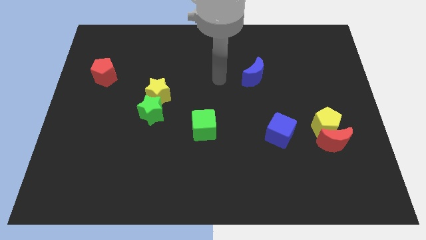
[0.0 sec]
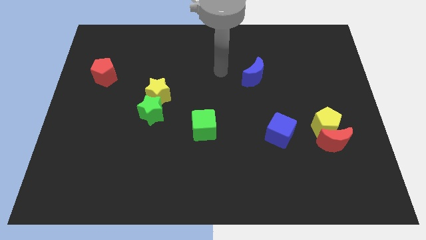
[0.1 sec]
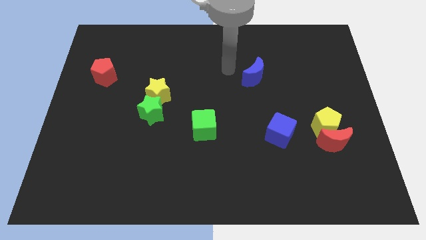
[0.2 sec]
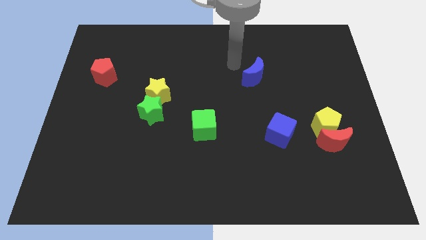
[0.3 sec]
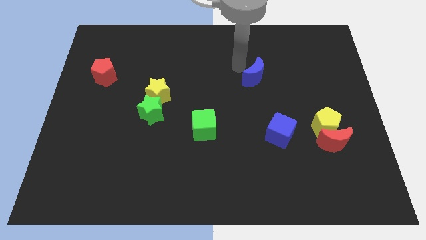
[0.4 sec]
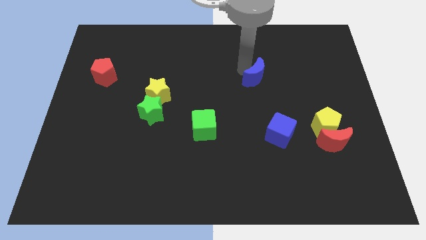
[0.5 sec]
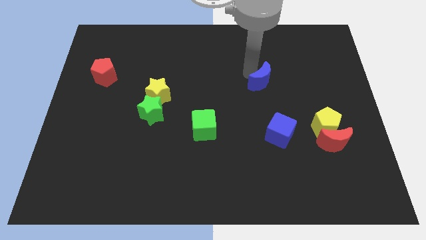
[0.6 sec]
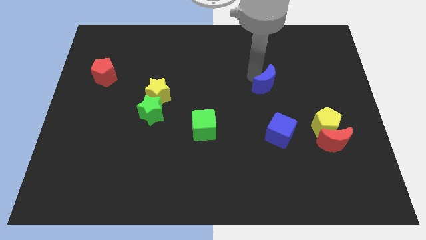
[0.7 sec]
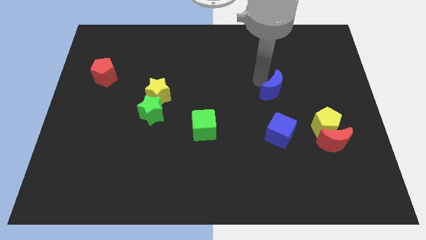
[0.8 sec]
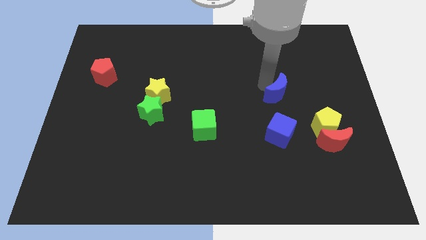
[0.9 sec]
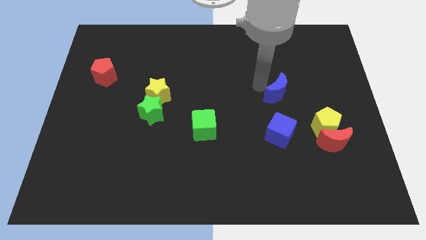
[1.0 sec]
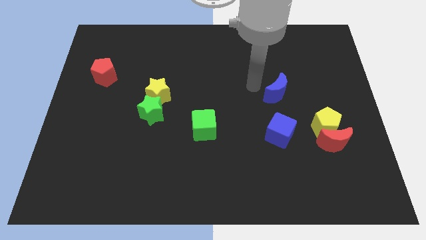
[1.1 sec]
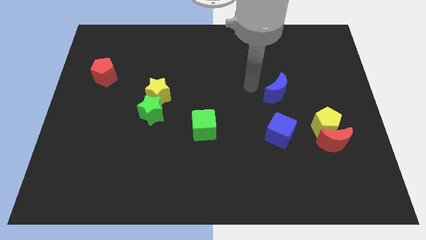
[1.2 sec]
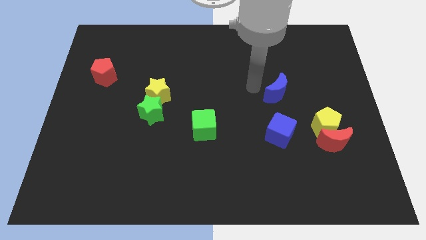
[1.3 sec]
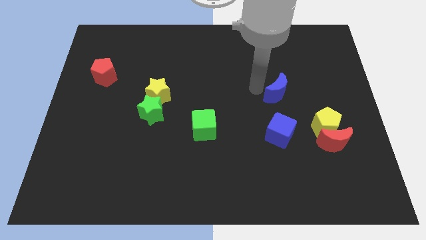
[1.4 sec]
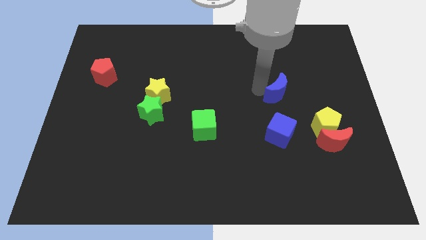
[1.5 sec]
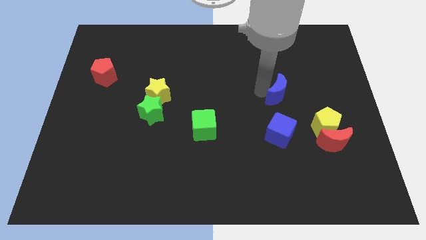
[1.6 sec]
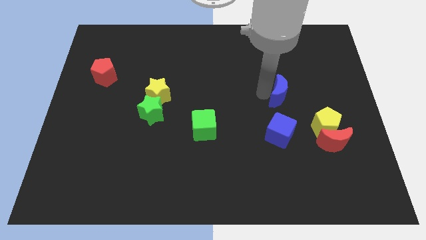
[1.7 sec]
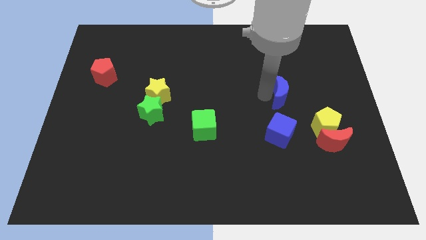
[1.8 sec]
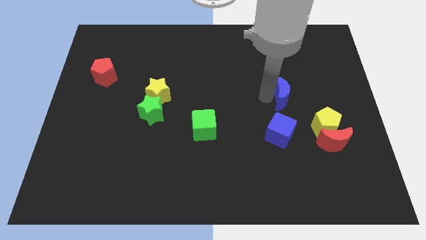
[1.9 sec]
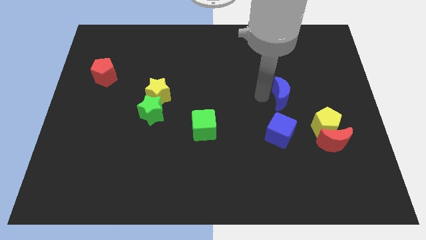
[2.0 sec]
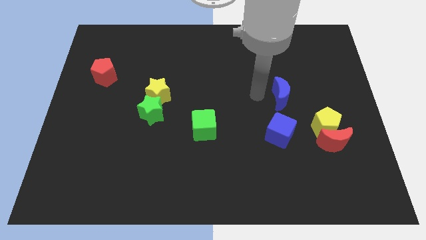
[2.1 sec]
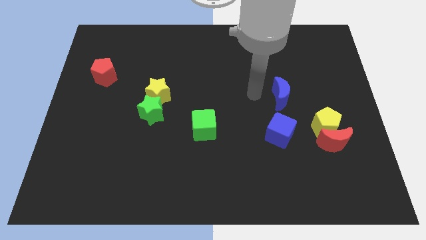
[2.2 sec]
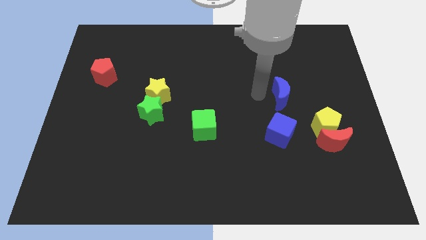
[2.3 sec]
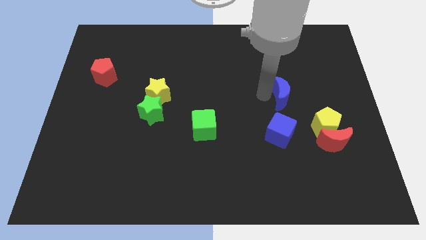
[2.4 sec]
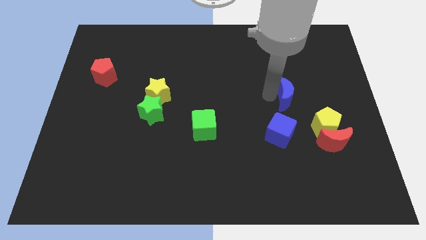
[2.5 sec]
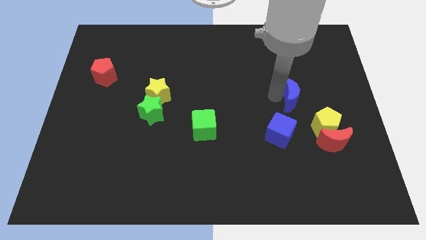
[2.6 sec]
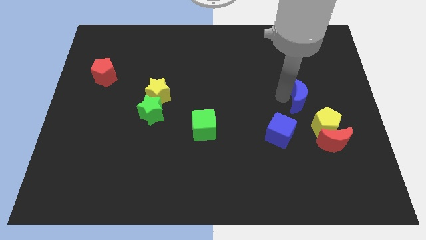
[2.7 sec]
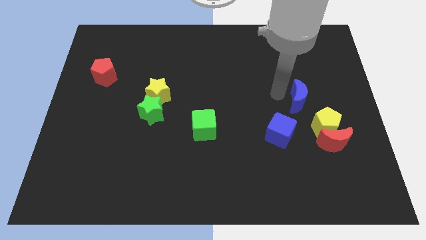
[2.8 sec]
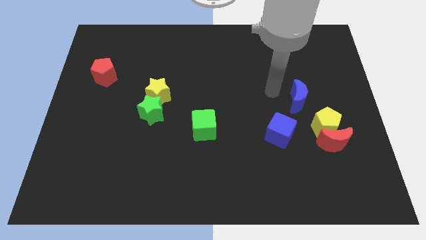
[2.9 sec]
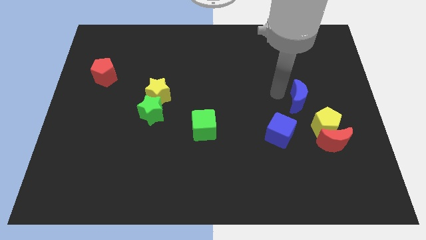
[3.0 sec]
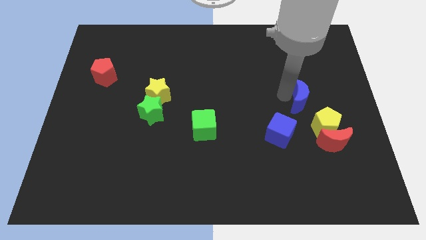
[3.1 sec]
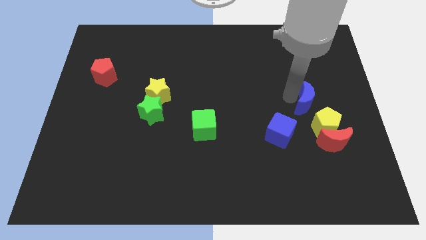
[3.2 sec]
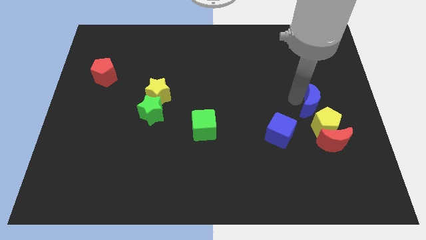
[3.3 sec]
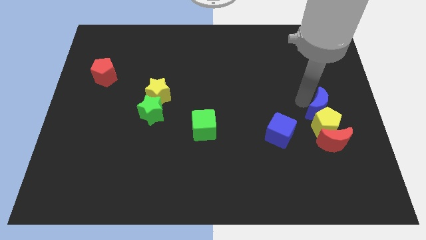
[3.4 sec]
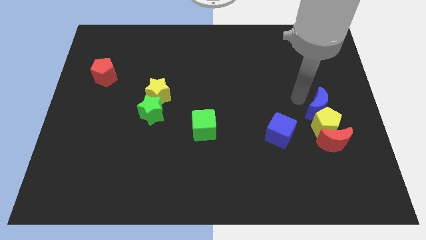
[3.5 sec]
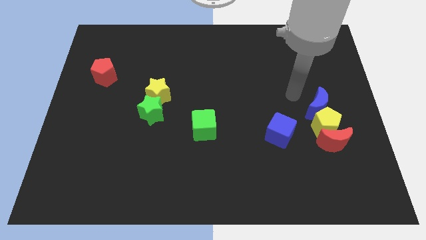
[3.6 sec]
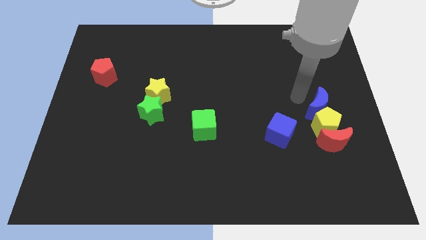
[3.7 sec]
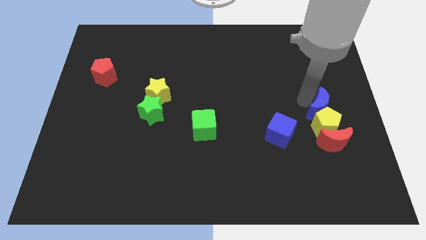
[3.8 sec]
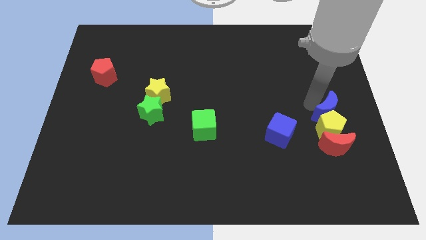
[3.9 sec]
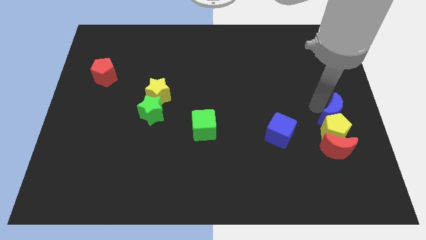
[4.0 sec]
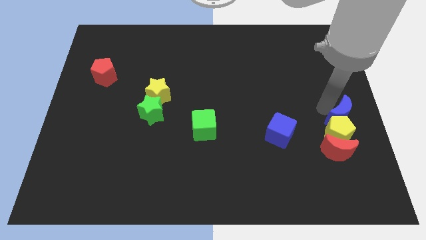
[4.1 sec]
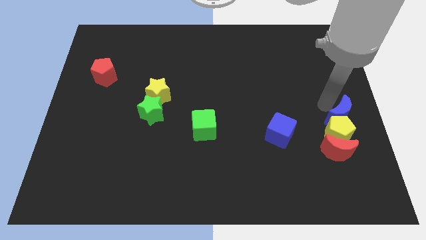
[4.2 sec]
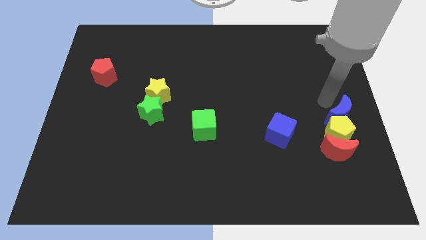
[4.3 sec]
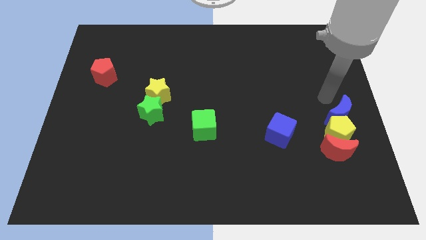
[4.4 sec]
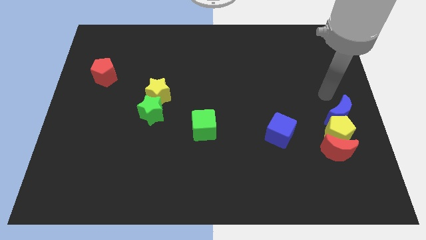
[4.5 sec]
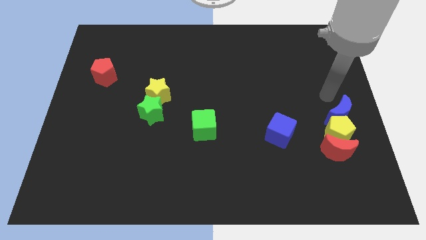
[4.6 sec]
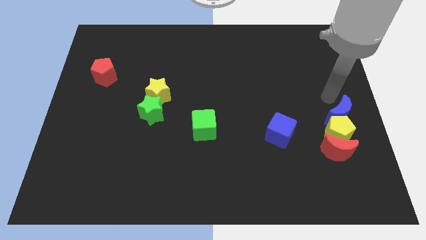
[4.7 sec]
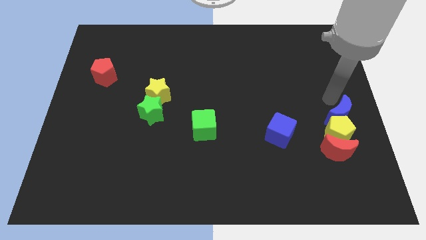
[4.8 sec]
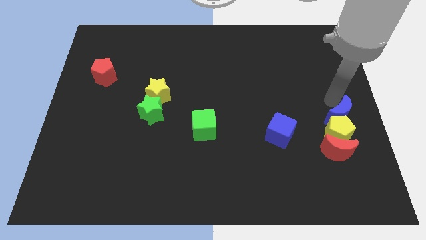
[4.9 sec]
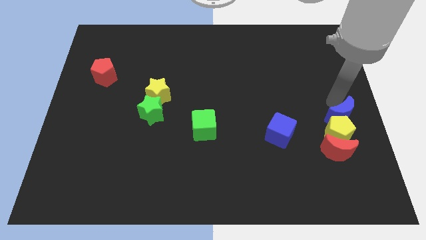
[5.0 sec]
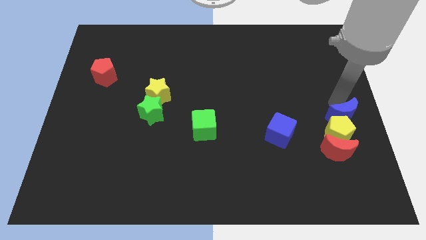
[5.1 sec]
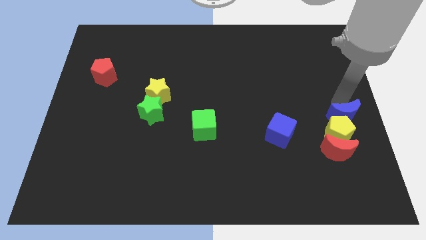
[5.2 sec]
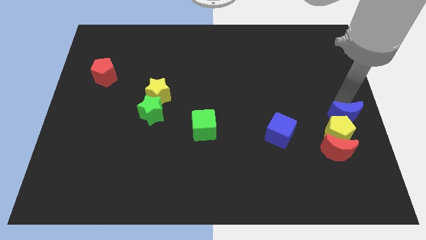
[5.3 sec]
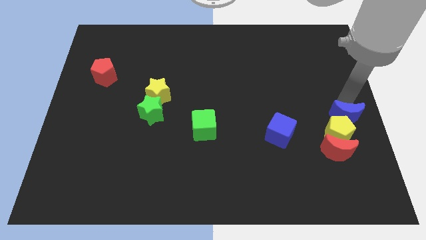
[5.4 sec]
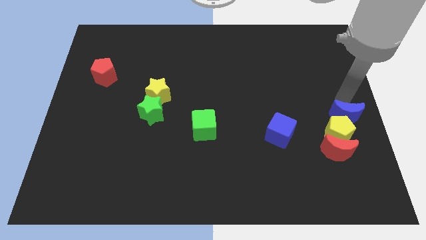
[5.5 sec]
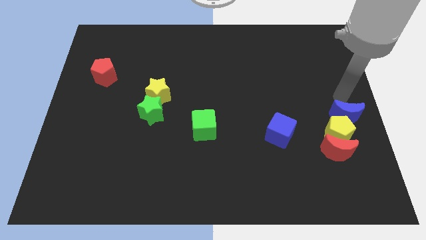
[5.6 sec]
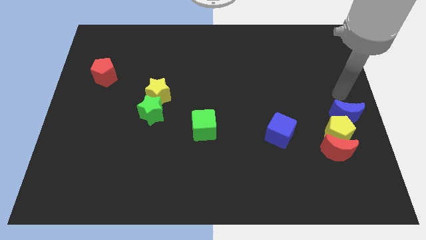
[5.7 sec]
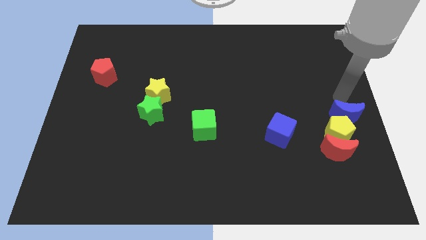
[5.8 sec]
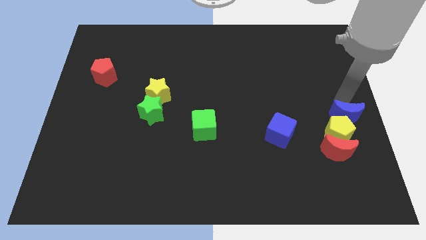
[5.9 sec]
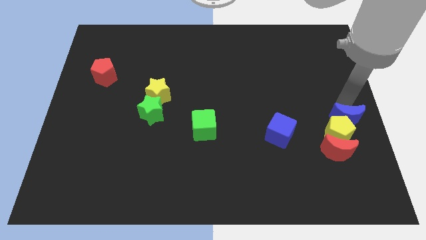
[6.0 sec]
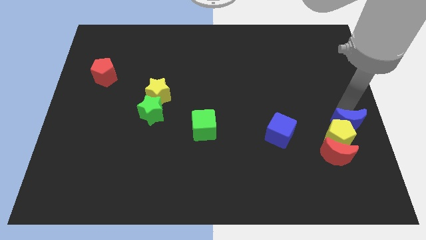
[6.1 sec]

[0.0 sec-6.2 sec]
move the blue moon just right of the blue cube

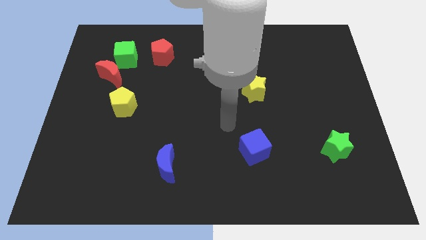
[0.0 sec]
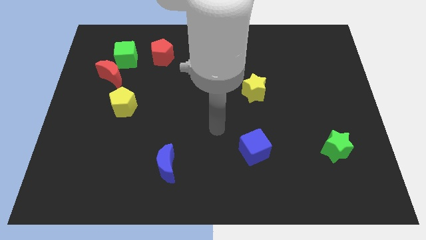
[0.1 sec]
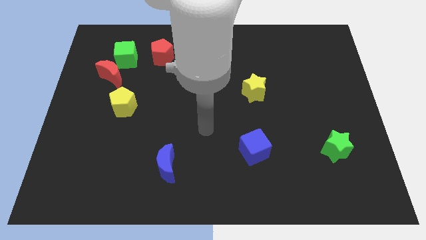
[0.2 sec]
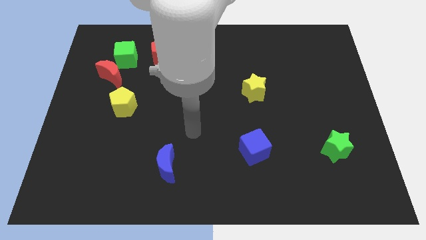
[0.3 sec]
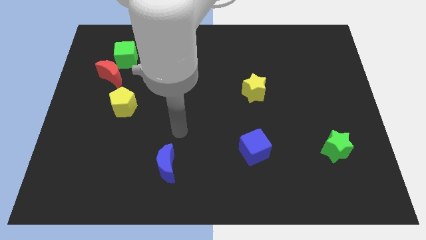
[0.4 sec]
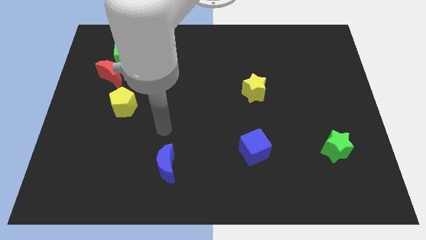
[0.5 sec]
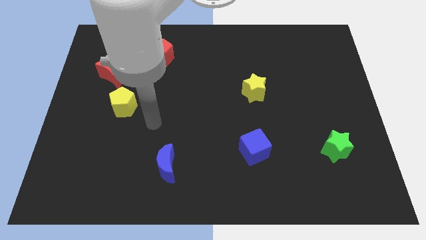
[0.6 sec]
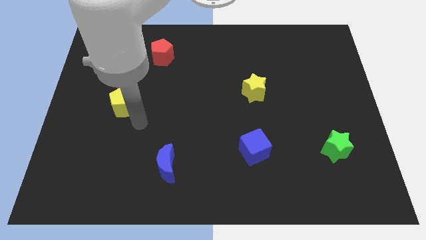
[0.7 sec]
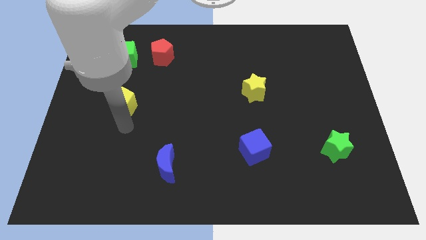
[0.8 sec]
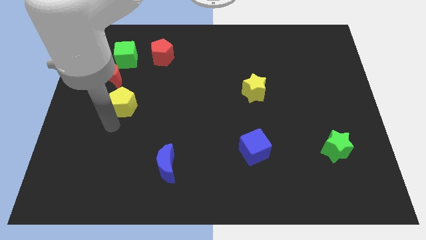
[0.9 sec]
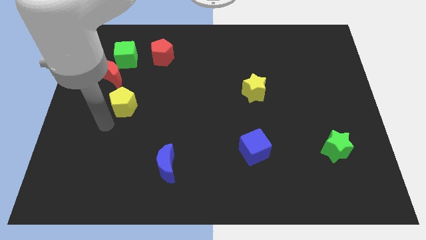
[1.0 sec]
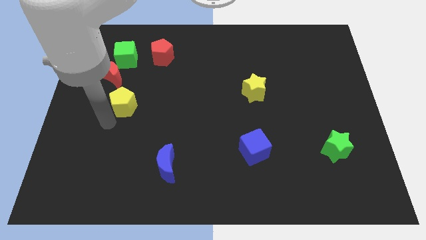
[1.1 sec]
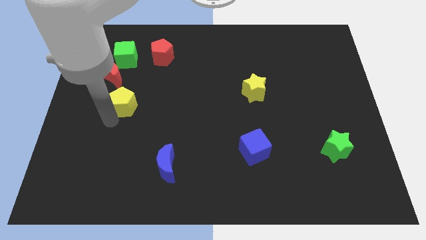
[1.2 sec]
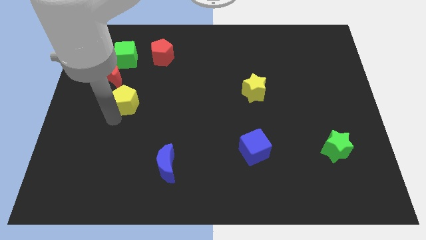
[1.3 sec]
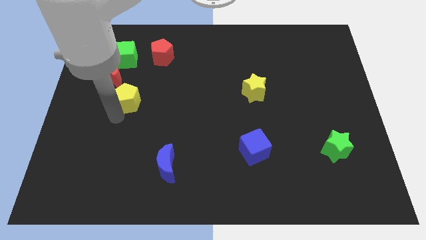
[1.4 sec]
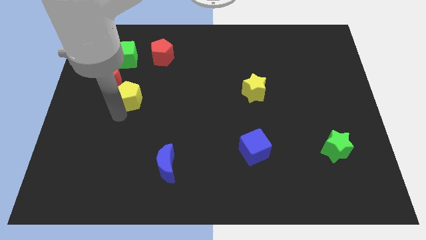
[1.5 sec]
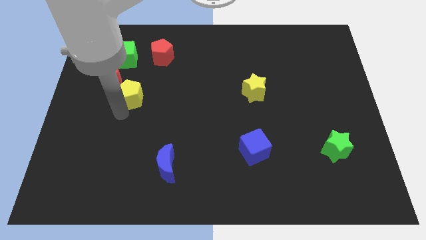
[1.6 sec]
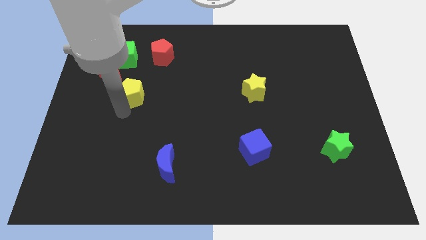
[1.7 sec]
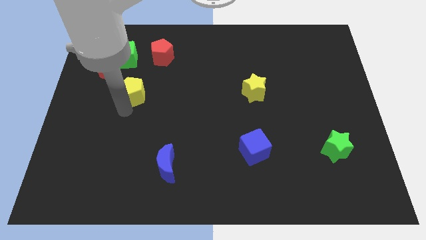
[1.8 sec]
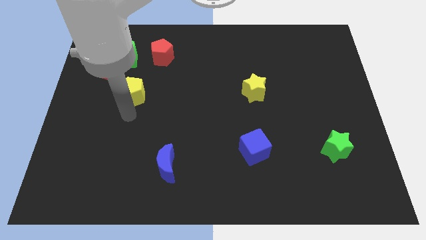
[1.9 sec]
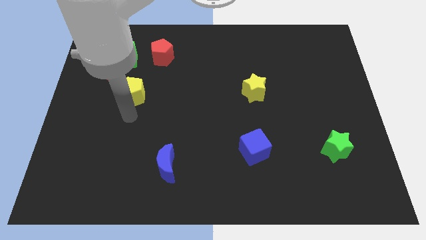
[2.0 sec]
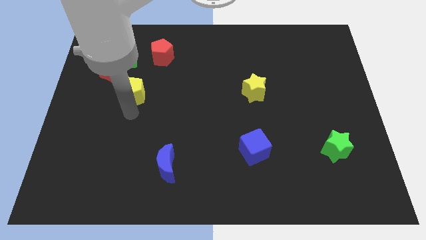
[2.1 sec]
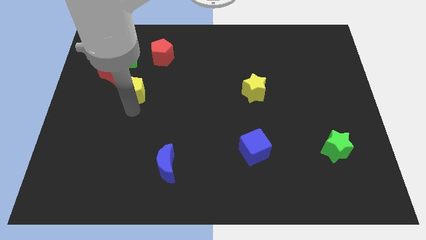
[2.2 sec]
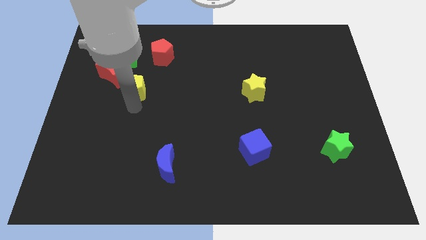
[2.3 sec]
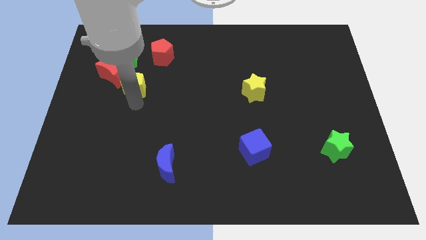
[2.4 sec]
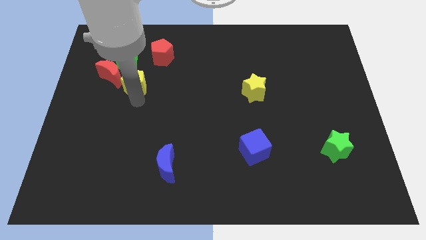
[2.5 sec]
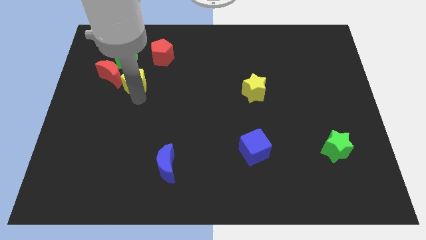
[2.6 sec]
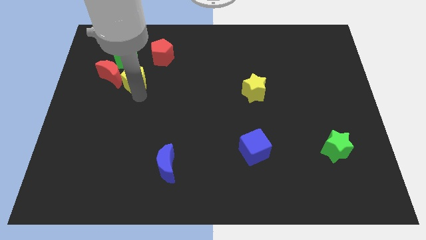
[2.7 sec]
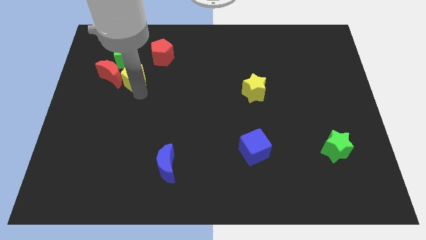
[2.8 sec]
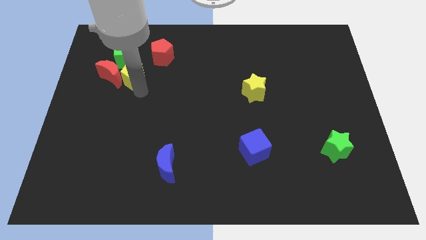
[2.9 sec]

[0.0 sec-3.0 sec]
put the yellow pentagon diagonally up and to the right of the red moon
